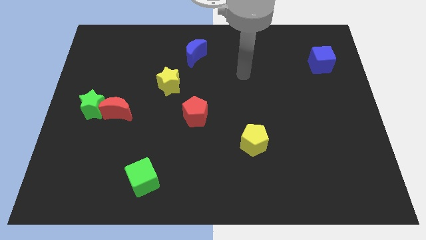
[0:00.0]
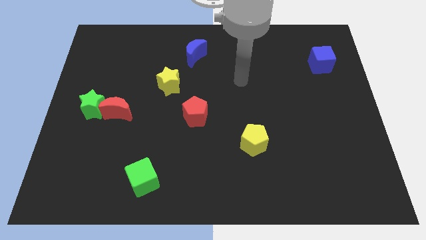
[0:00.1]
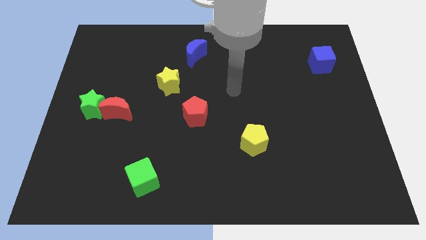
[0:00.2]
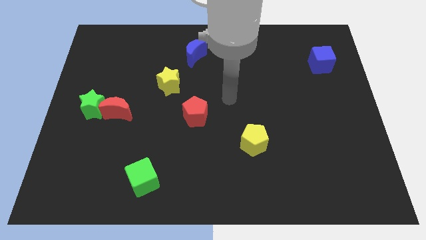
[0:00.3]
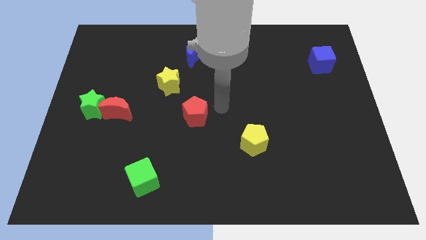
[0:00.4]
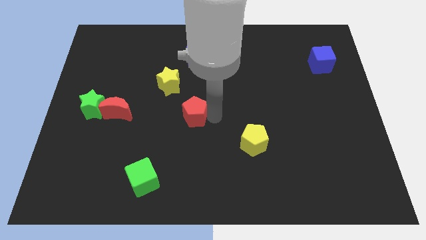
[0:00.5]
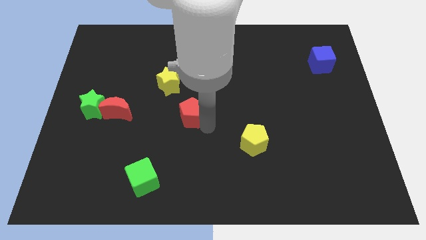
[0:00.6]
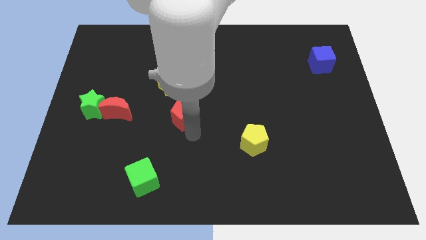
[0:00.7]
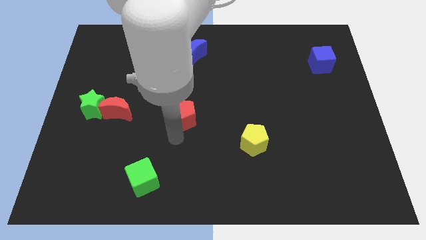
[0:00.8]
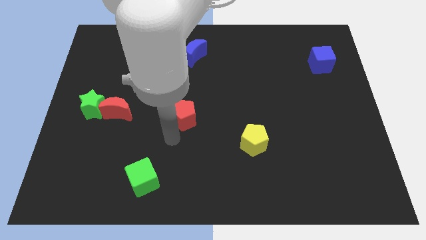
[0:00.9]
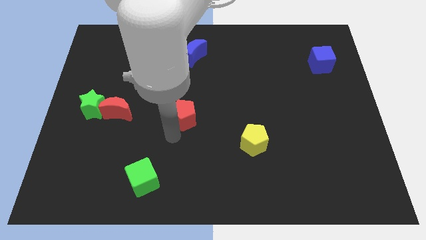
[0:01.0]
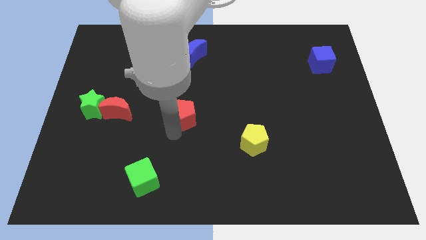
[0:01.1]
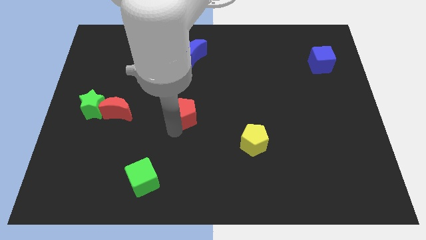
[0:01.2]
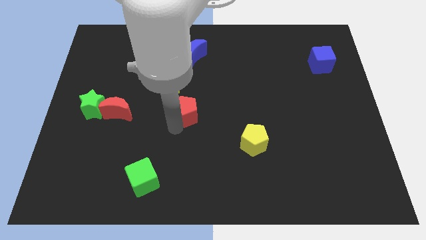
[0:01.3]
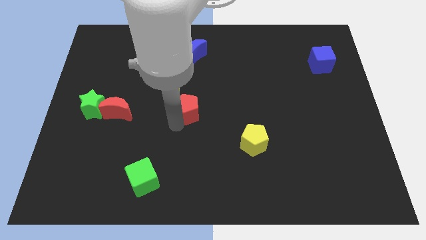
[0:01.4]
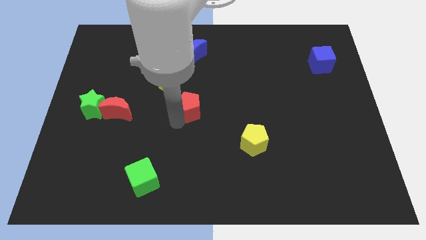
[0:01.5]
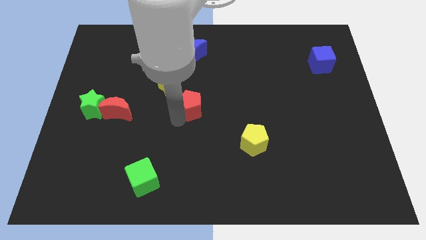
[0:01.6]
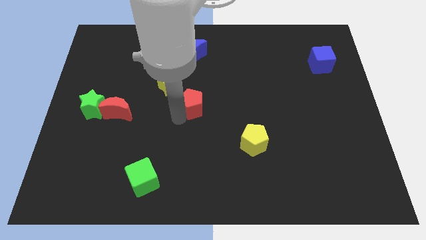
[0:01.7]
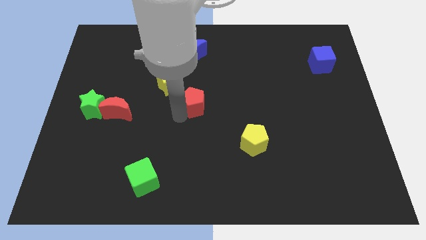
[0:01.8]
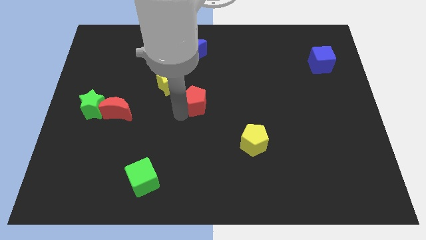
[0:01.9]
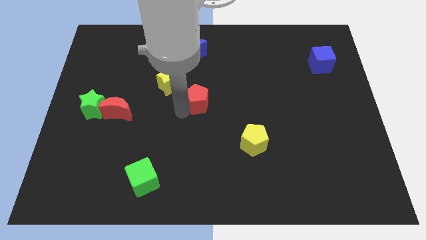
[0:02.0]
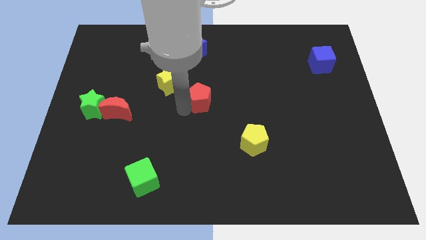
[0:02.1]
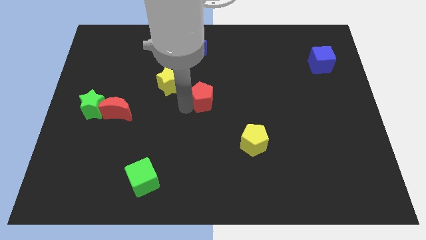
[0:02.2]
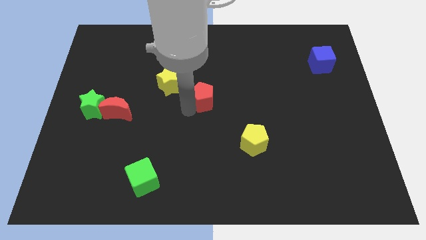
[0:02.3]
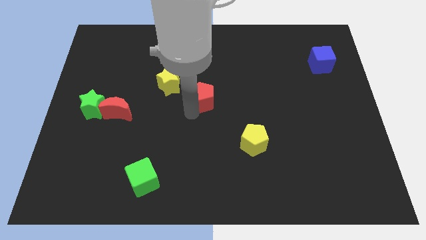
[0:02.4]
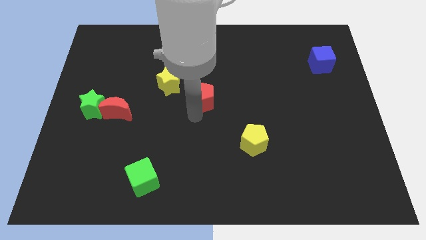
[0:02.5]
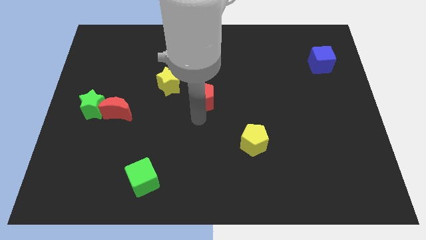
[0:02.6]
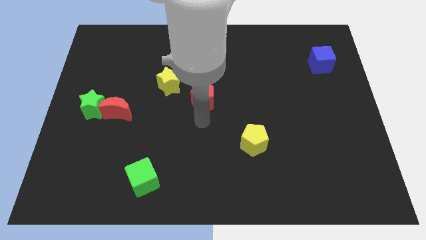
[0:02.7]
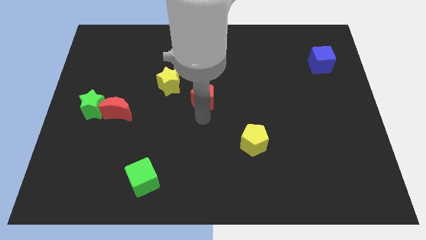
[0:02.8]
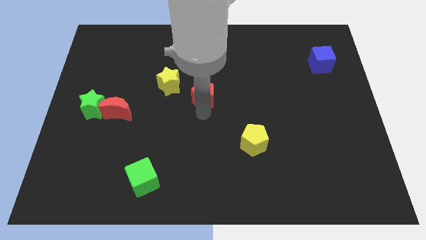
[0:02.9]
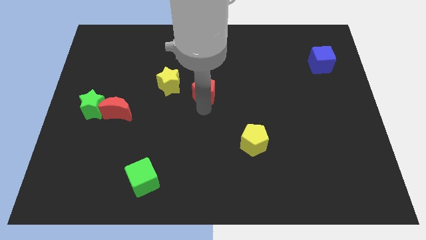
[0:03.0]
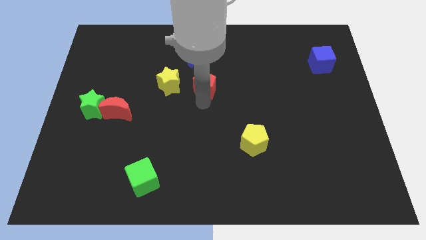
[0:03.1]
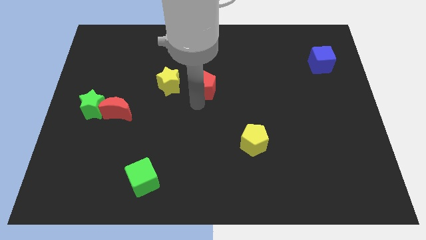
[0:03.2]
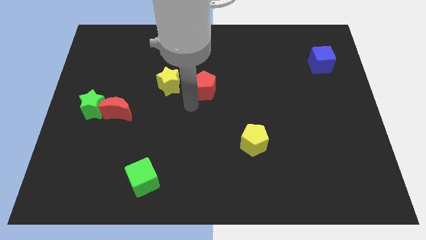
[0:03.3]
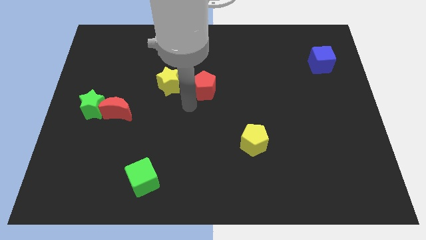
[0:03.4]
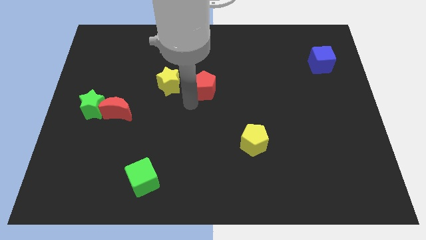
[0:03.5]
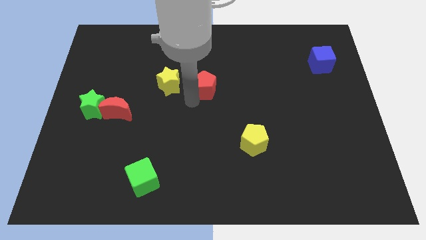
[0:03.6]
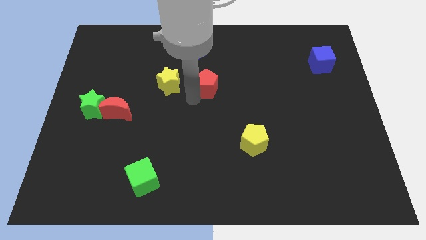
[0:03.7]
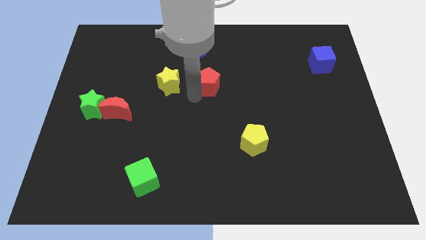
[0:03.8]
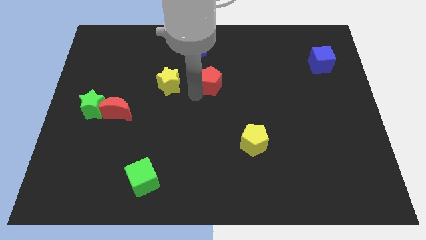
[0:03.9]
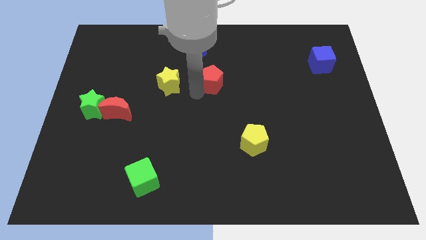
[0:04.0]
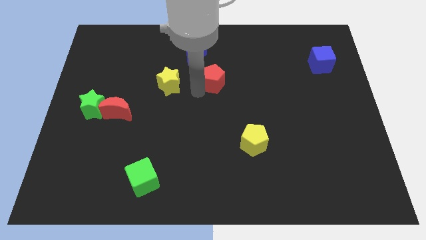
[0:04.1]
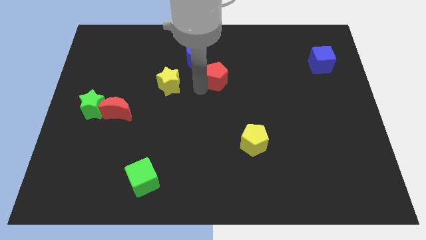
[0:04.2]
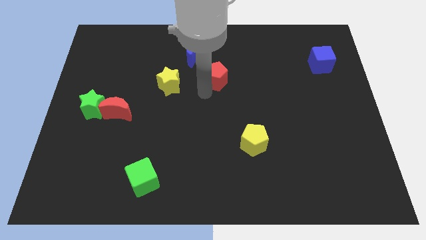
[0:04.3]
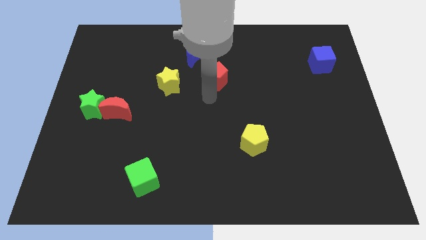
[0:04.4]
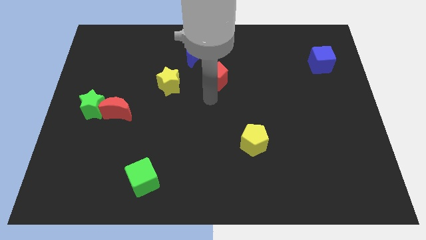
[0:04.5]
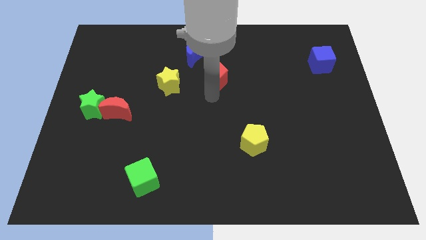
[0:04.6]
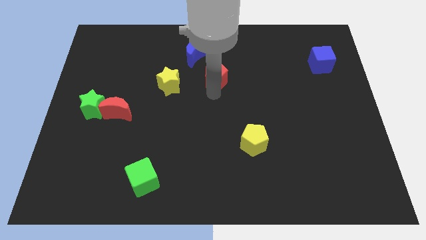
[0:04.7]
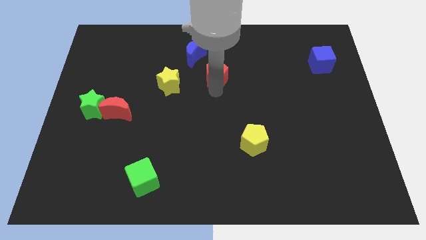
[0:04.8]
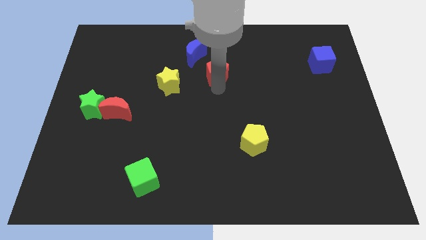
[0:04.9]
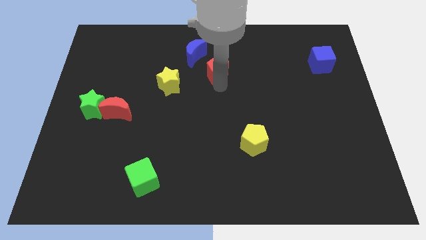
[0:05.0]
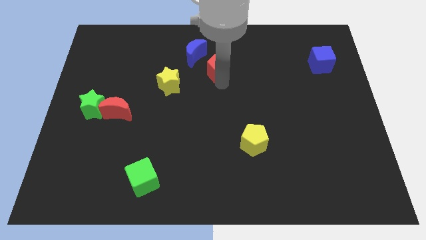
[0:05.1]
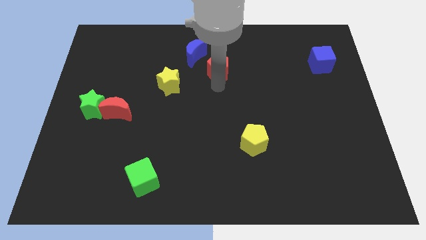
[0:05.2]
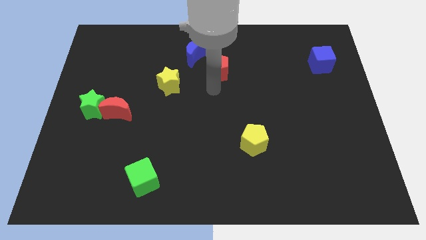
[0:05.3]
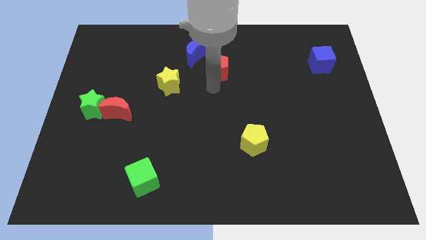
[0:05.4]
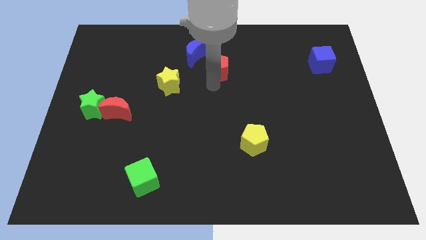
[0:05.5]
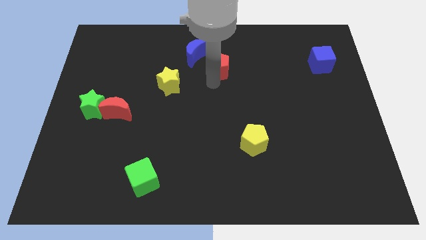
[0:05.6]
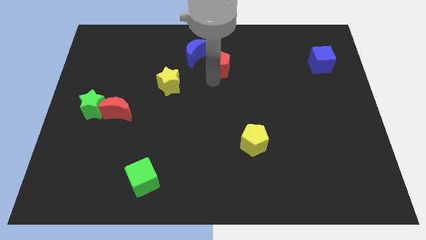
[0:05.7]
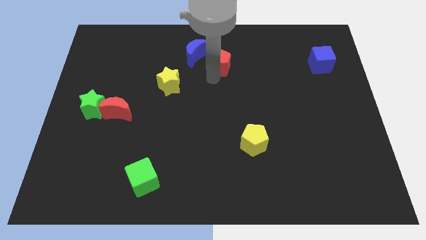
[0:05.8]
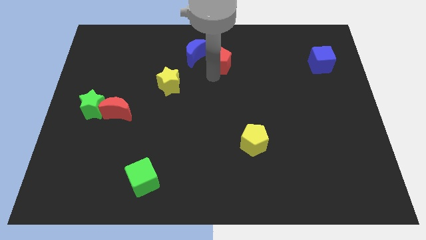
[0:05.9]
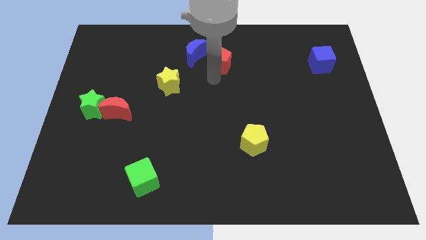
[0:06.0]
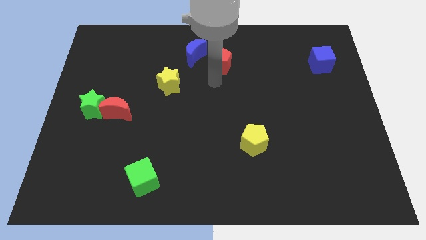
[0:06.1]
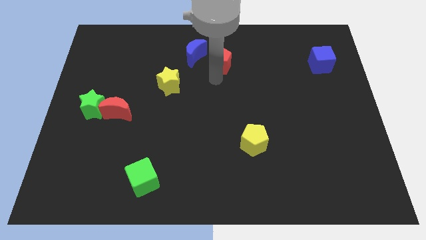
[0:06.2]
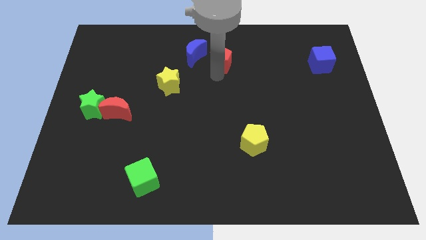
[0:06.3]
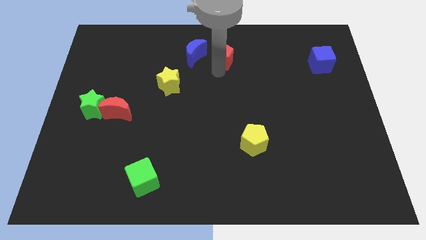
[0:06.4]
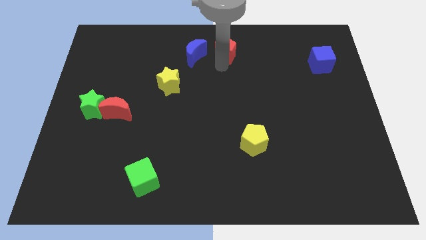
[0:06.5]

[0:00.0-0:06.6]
push the red pentagon to the towards your base
